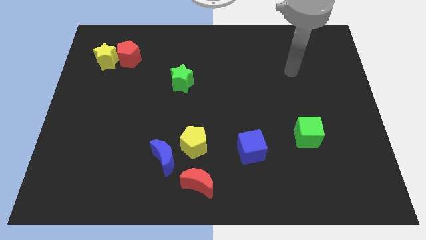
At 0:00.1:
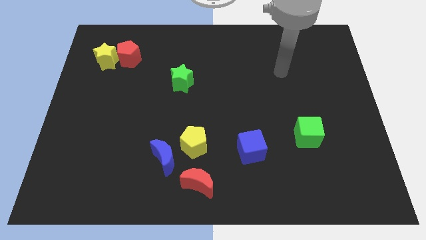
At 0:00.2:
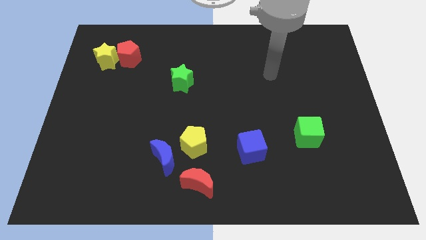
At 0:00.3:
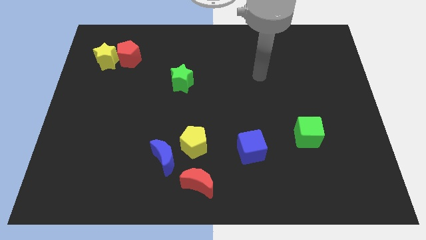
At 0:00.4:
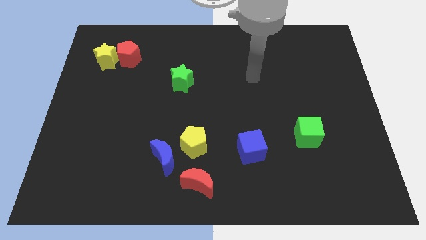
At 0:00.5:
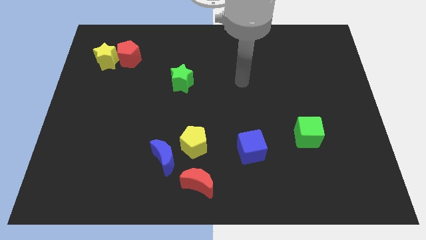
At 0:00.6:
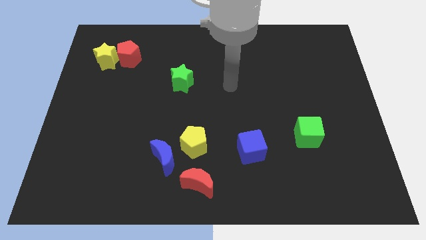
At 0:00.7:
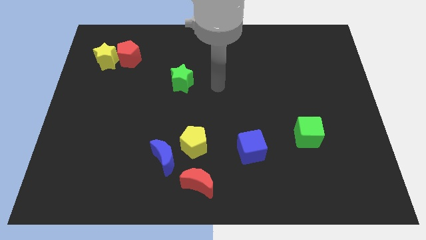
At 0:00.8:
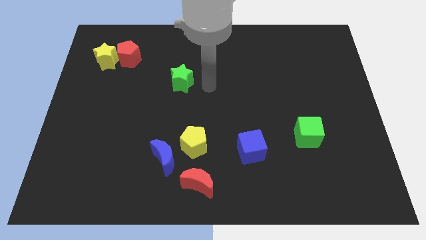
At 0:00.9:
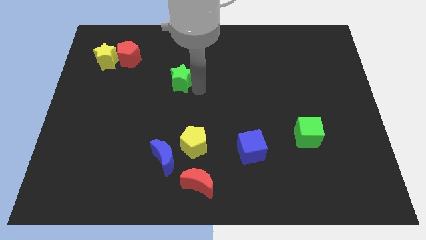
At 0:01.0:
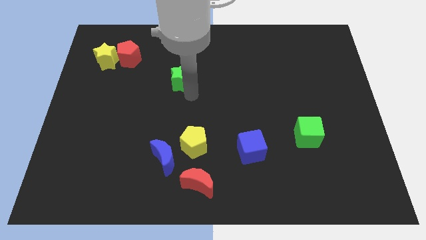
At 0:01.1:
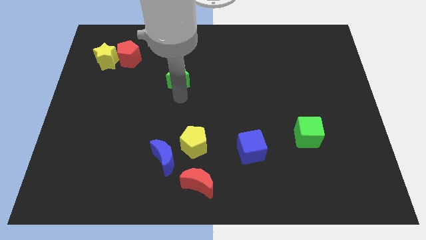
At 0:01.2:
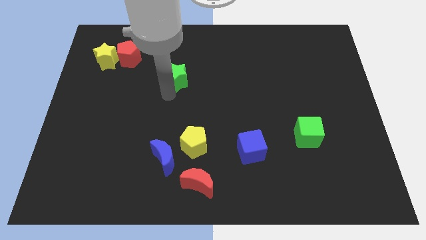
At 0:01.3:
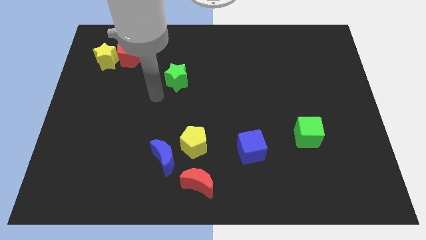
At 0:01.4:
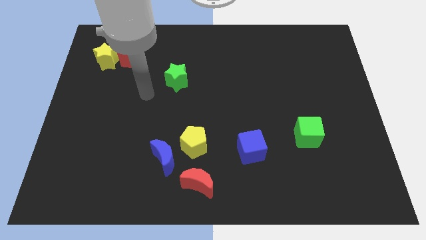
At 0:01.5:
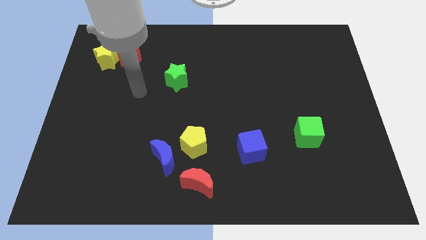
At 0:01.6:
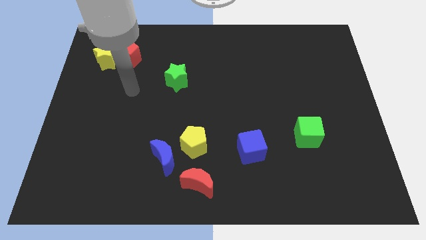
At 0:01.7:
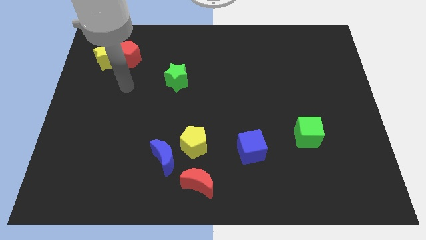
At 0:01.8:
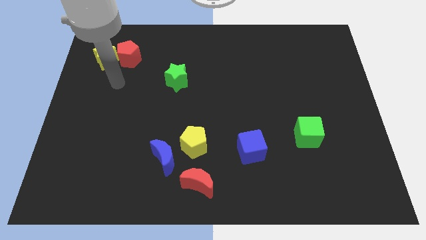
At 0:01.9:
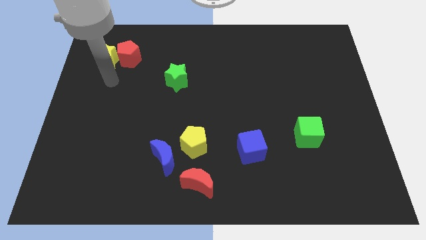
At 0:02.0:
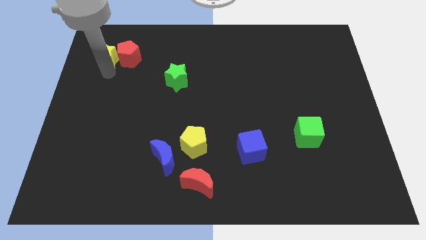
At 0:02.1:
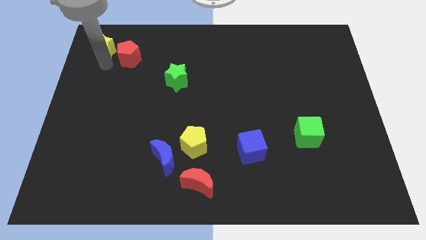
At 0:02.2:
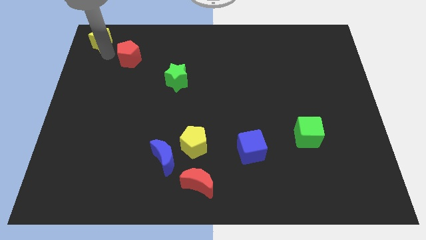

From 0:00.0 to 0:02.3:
move the red pentagon away from the yellow star

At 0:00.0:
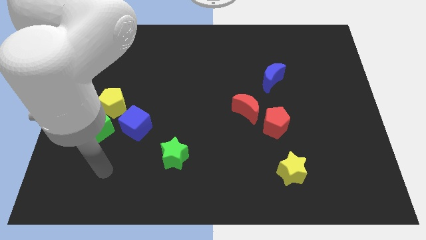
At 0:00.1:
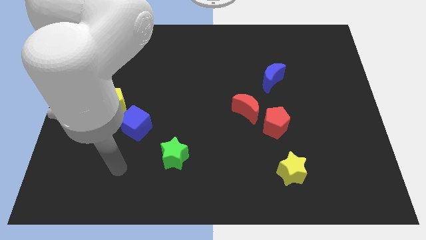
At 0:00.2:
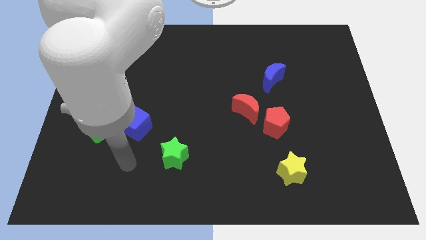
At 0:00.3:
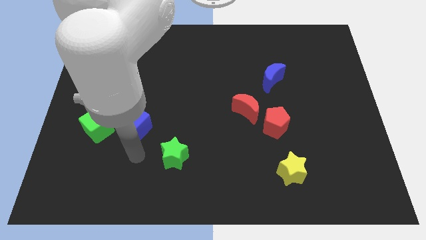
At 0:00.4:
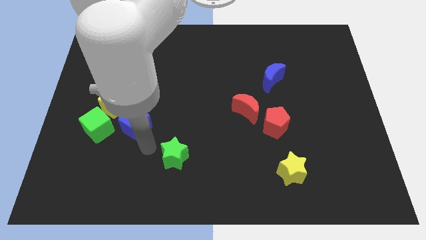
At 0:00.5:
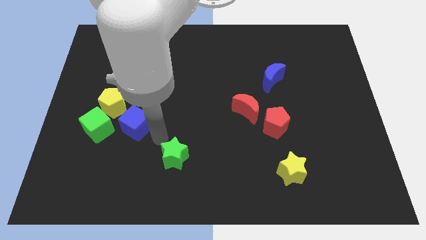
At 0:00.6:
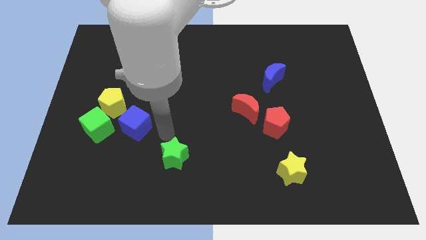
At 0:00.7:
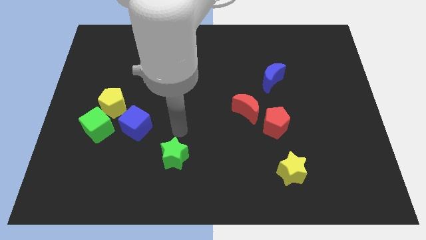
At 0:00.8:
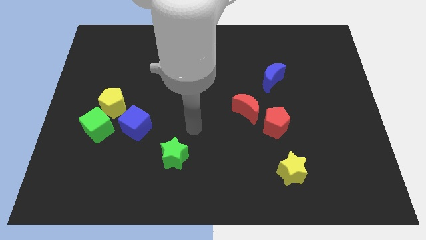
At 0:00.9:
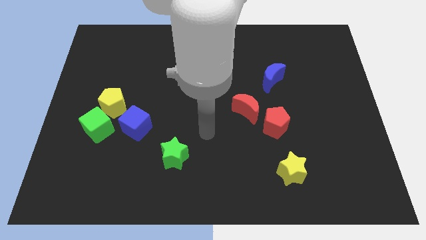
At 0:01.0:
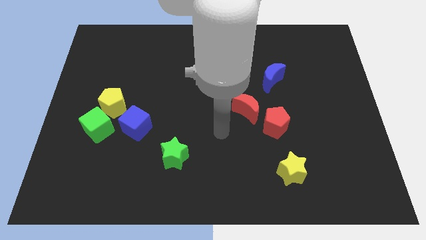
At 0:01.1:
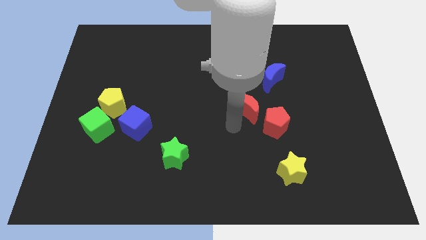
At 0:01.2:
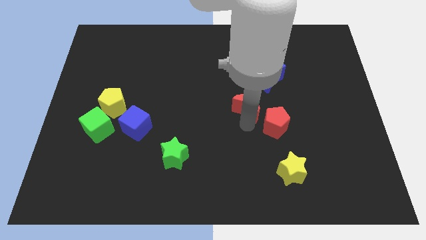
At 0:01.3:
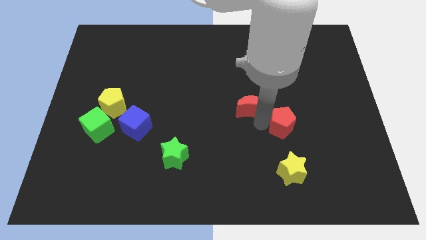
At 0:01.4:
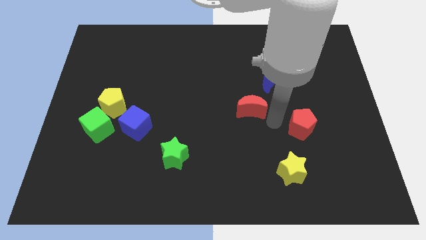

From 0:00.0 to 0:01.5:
move the red moon away from the red pentagon

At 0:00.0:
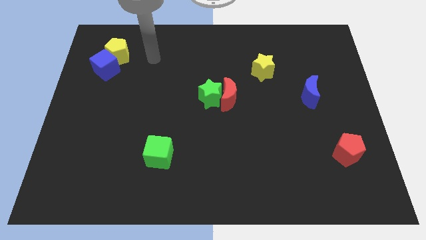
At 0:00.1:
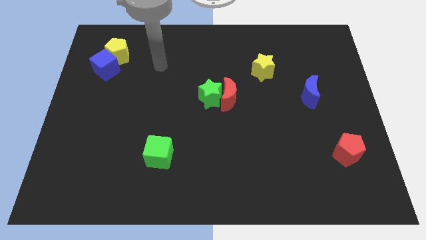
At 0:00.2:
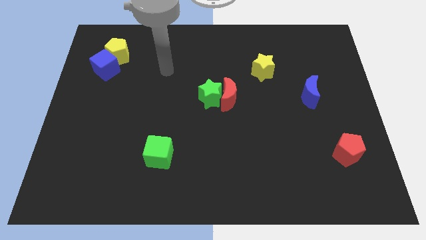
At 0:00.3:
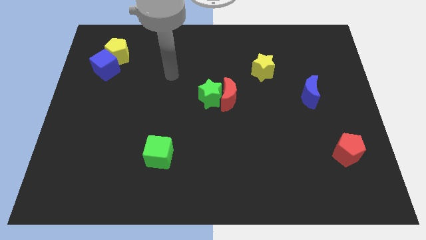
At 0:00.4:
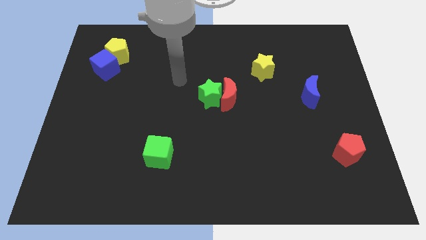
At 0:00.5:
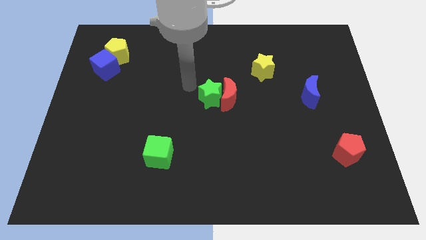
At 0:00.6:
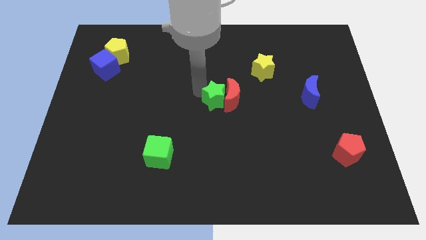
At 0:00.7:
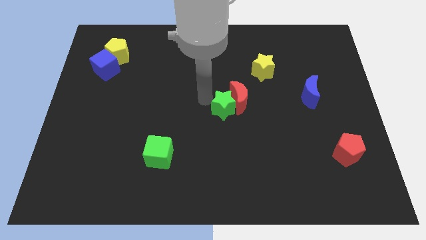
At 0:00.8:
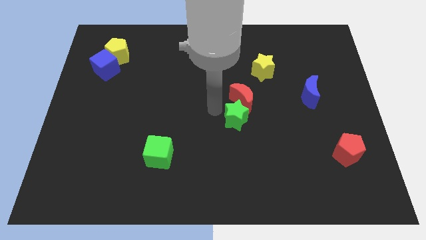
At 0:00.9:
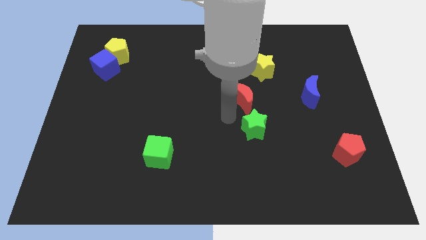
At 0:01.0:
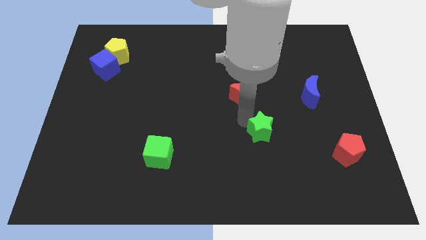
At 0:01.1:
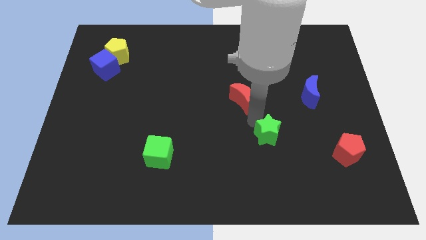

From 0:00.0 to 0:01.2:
move the red moon away from the green star

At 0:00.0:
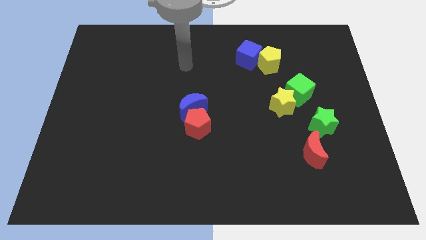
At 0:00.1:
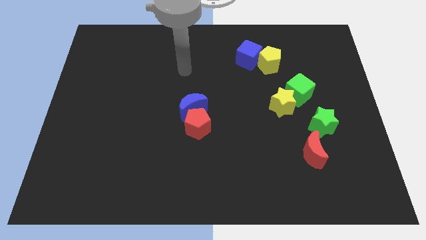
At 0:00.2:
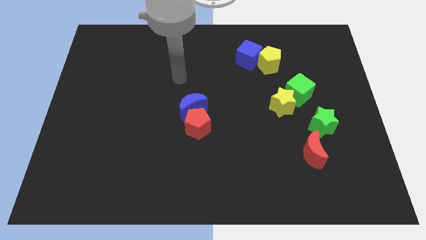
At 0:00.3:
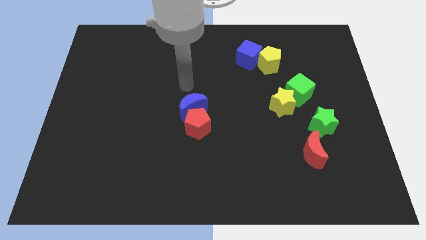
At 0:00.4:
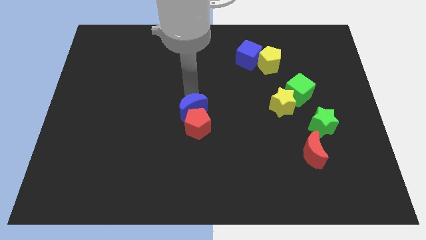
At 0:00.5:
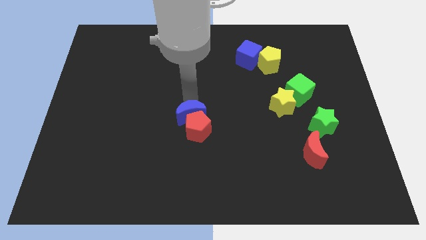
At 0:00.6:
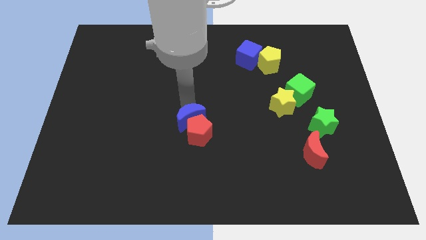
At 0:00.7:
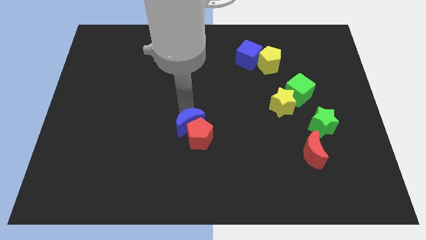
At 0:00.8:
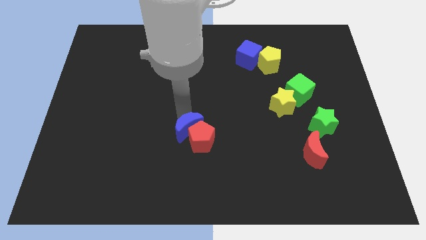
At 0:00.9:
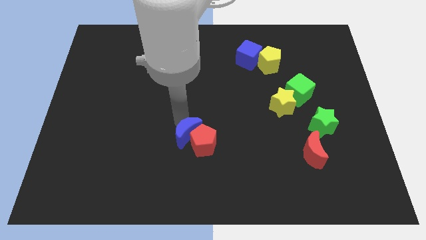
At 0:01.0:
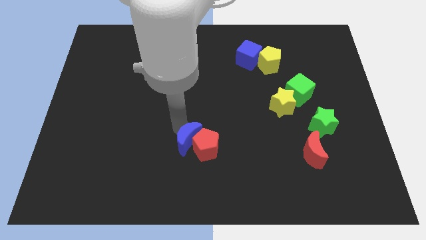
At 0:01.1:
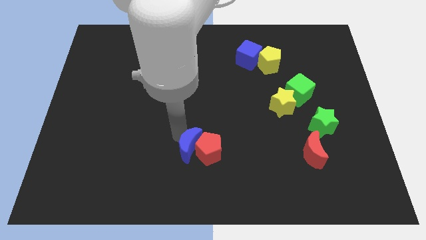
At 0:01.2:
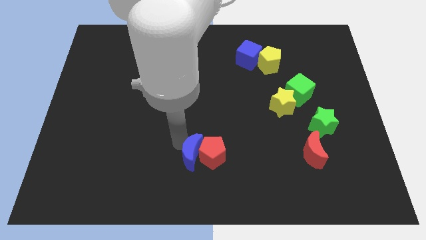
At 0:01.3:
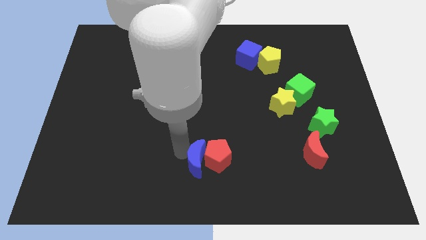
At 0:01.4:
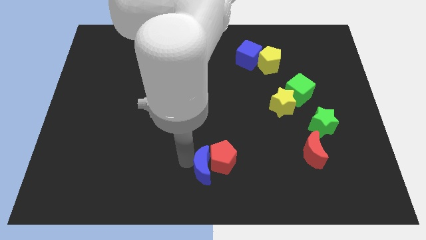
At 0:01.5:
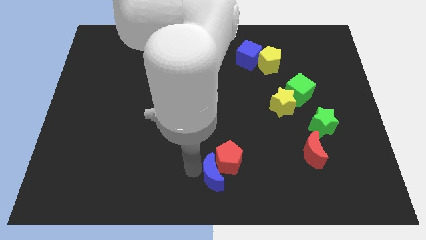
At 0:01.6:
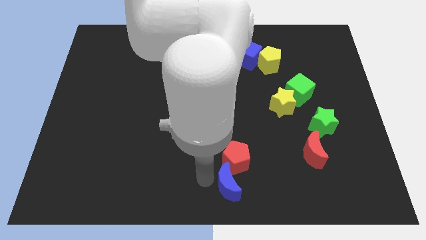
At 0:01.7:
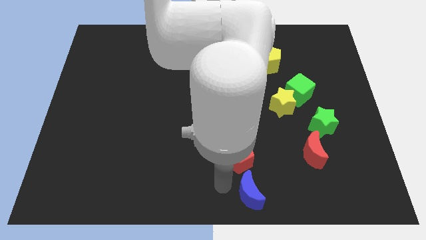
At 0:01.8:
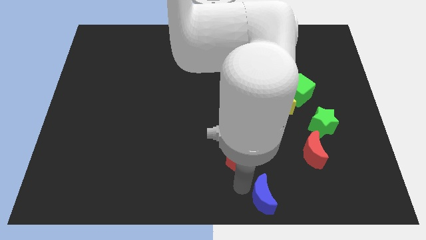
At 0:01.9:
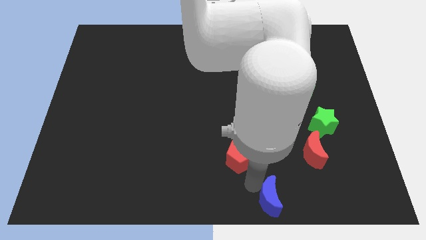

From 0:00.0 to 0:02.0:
pull the red pentagon apart from the blue moon

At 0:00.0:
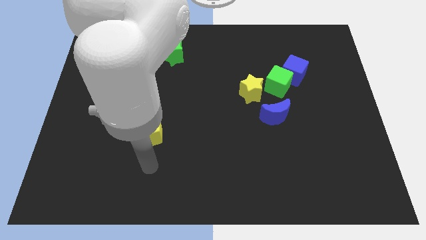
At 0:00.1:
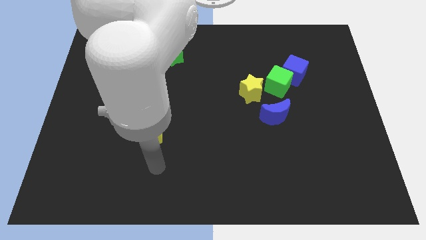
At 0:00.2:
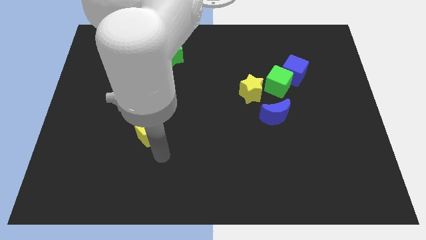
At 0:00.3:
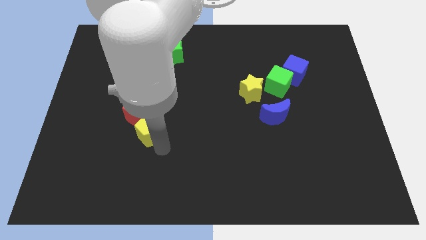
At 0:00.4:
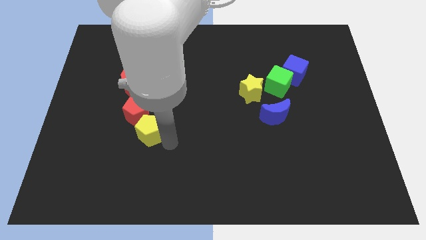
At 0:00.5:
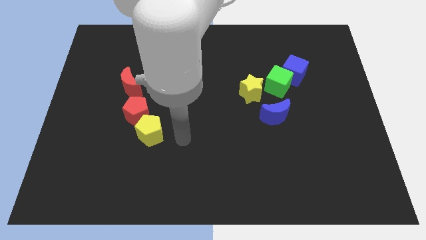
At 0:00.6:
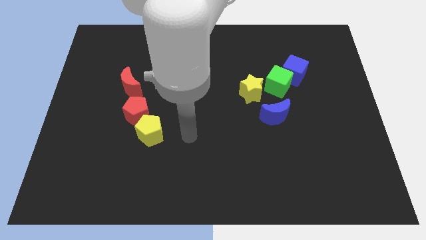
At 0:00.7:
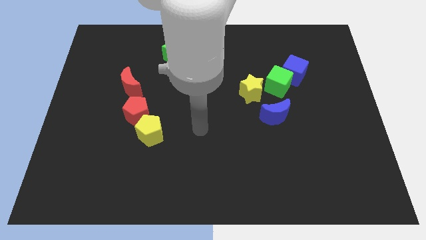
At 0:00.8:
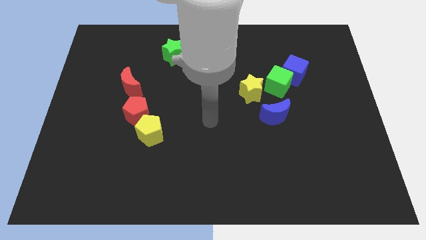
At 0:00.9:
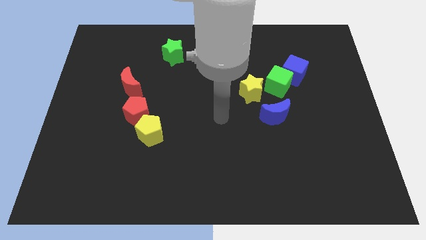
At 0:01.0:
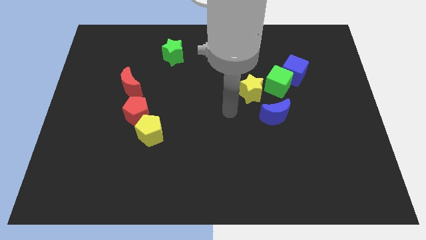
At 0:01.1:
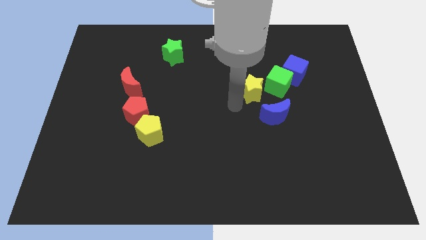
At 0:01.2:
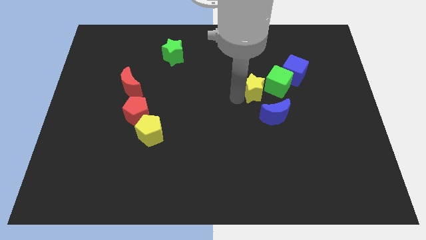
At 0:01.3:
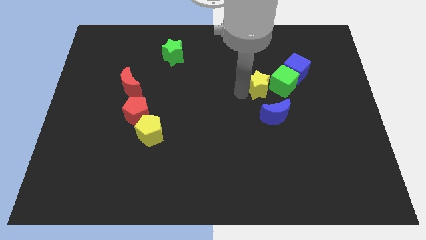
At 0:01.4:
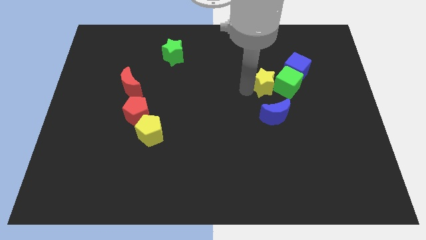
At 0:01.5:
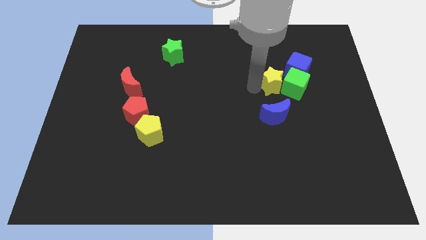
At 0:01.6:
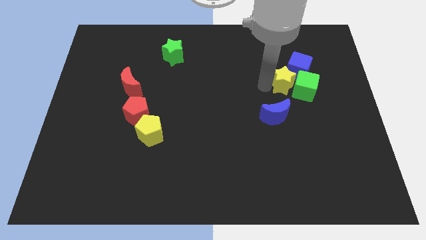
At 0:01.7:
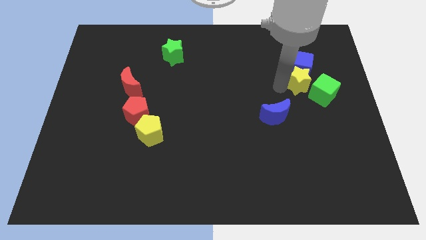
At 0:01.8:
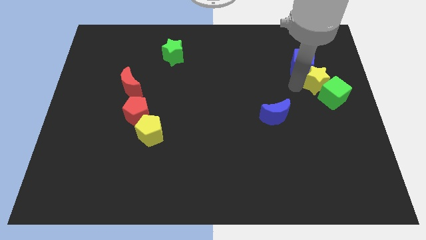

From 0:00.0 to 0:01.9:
pull the blue cube apart from the green cube

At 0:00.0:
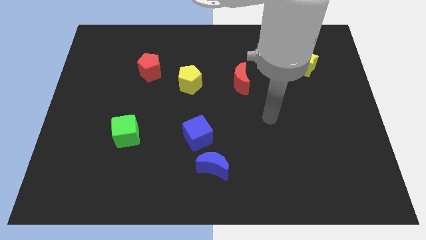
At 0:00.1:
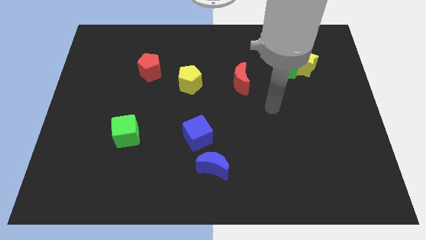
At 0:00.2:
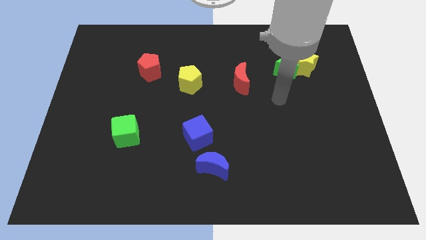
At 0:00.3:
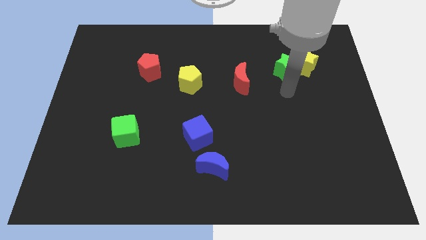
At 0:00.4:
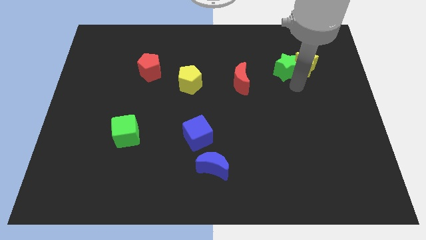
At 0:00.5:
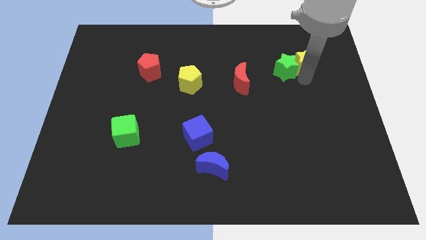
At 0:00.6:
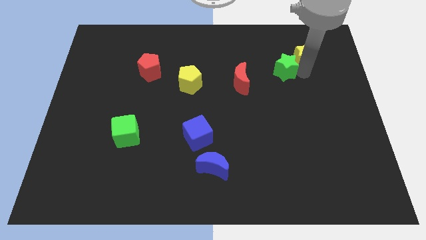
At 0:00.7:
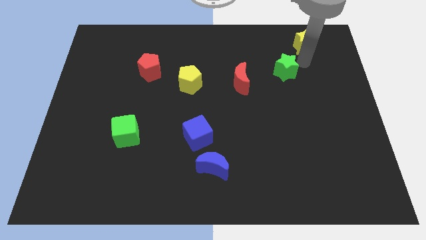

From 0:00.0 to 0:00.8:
move the green star away from the yellow star
